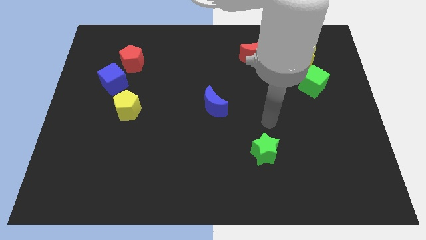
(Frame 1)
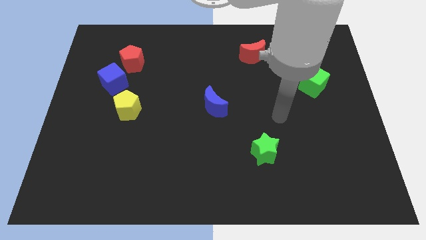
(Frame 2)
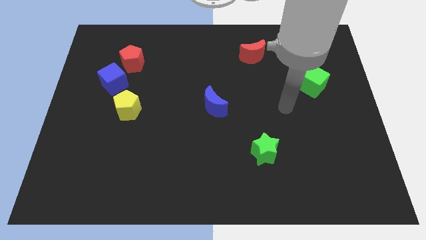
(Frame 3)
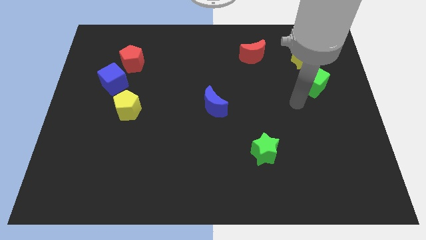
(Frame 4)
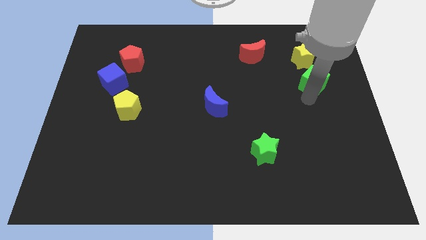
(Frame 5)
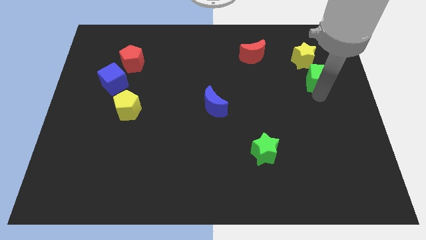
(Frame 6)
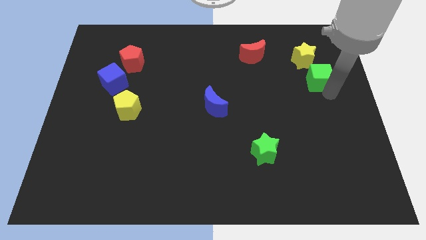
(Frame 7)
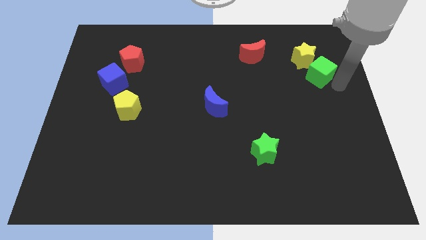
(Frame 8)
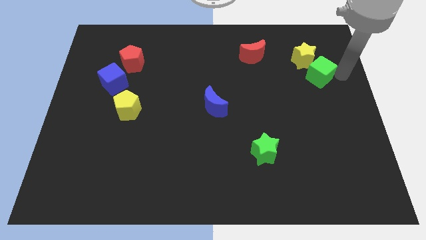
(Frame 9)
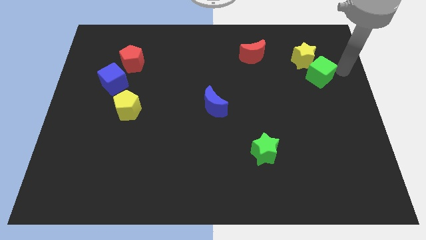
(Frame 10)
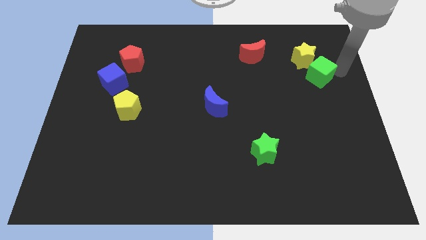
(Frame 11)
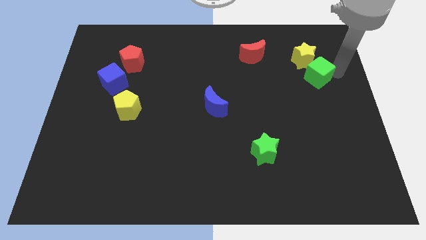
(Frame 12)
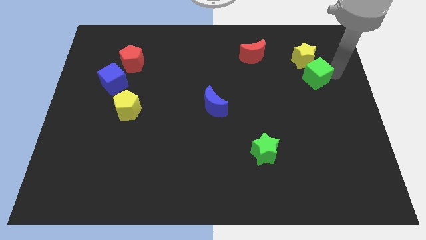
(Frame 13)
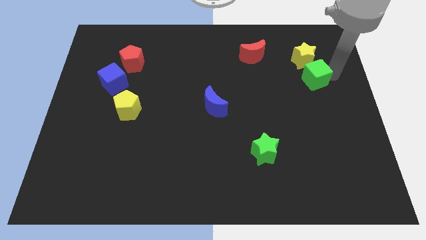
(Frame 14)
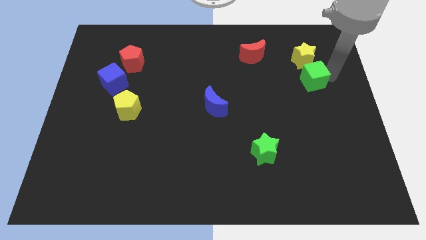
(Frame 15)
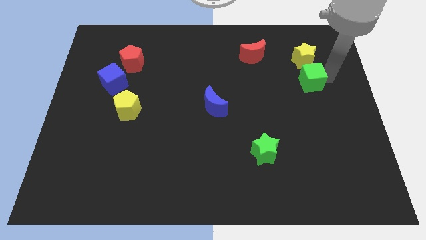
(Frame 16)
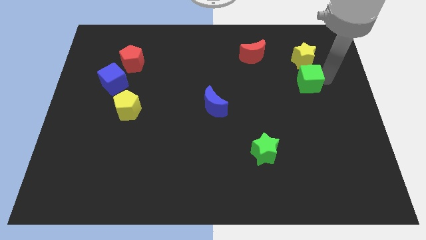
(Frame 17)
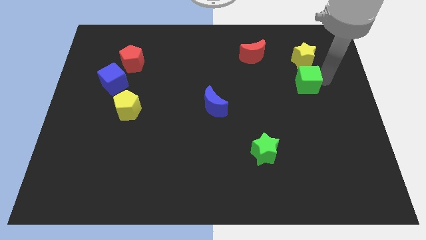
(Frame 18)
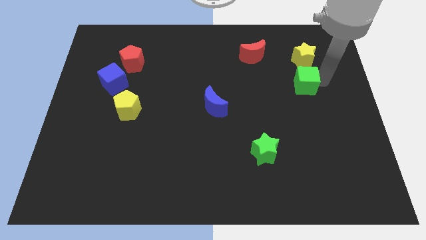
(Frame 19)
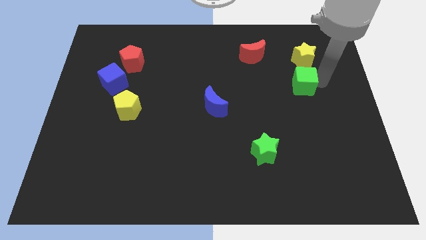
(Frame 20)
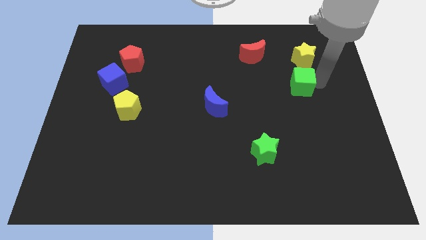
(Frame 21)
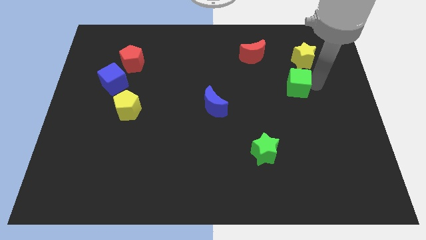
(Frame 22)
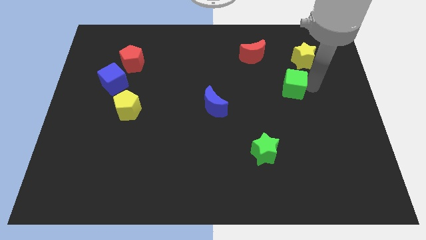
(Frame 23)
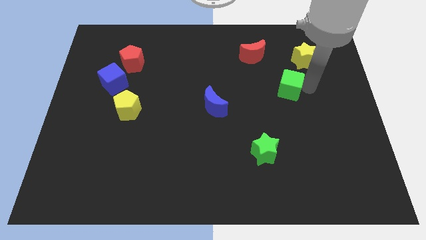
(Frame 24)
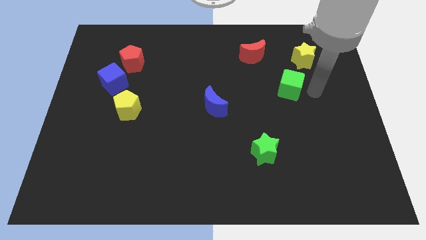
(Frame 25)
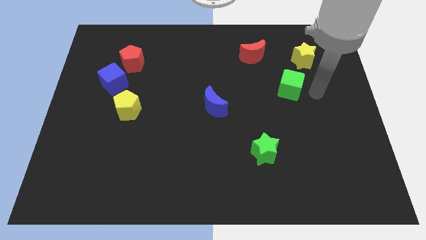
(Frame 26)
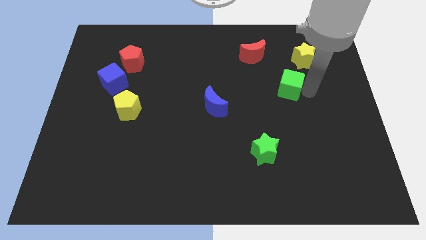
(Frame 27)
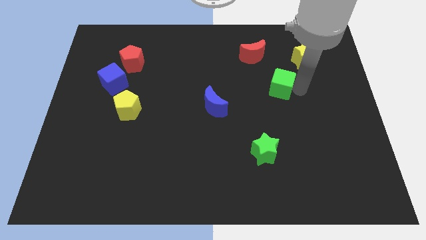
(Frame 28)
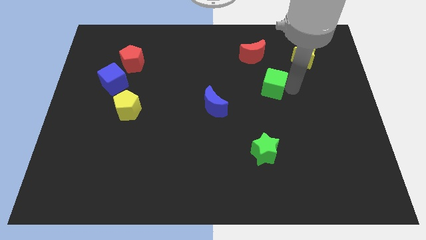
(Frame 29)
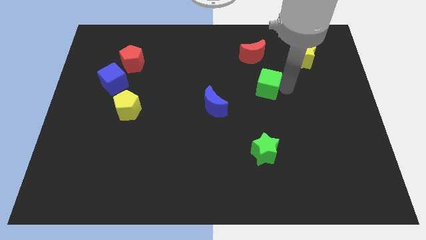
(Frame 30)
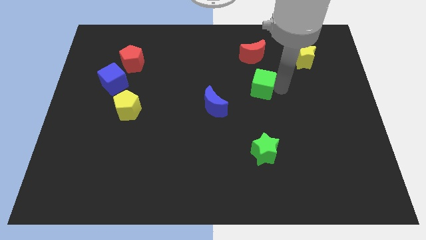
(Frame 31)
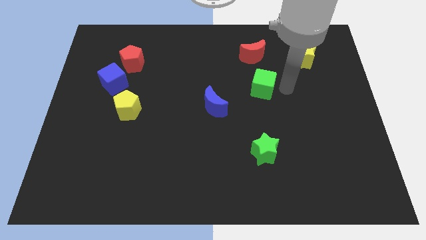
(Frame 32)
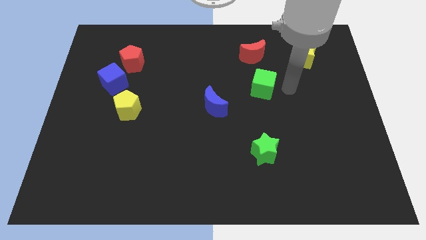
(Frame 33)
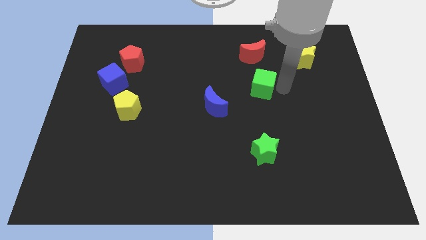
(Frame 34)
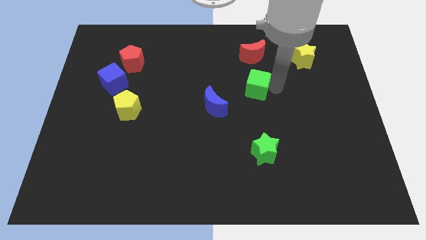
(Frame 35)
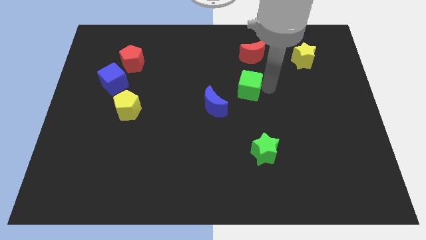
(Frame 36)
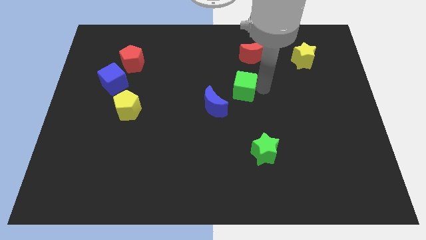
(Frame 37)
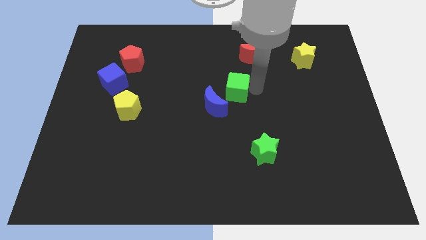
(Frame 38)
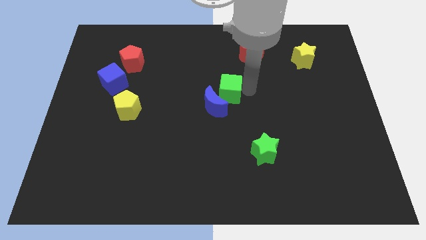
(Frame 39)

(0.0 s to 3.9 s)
slide the green cube to the left

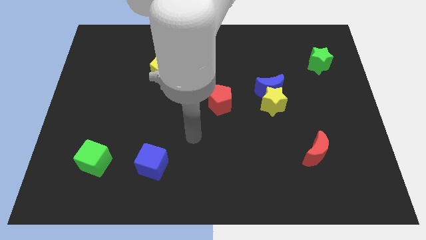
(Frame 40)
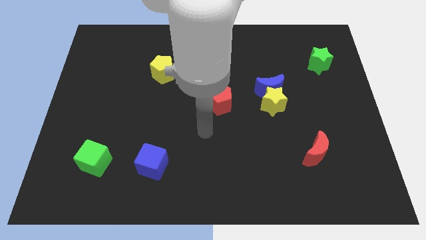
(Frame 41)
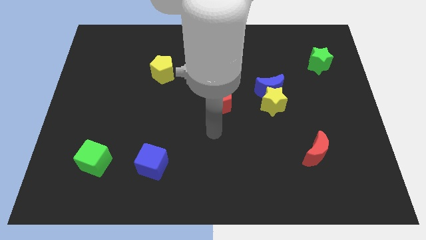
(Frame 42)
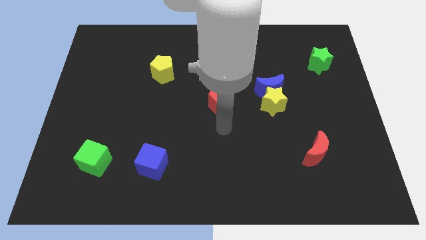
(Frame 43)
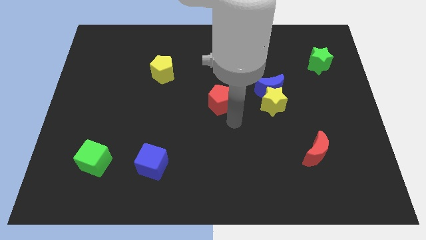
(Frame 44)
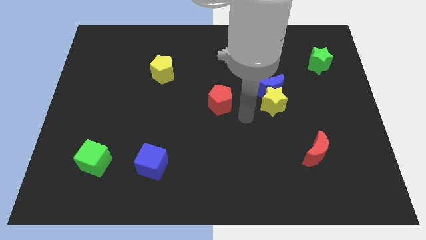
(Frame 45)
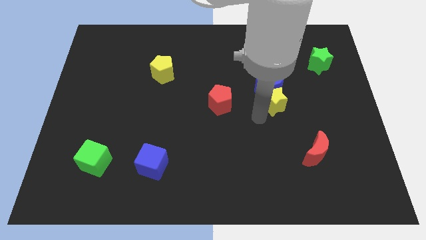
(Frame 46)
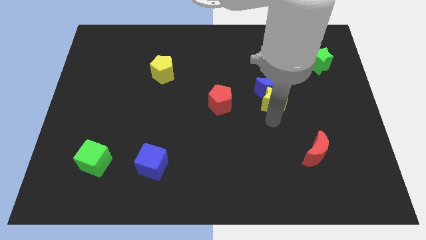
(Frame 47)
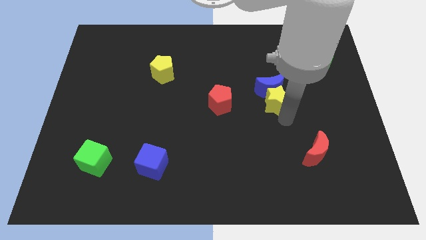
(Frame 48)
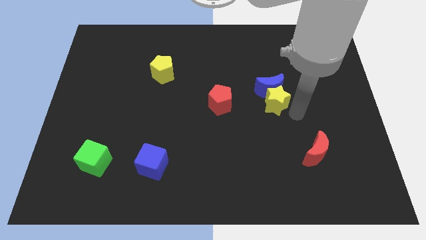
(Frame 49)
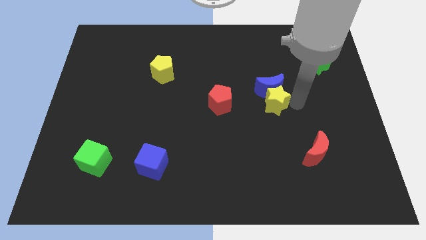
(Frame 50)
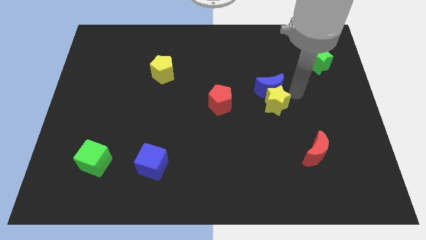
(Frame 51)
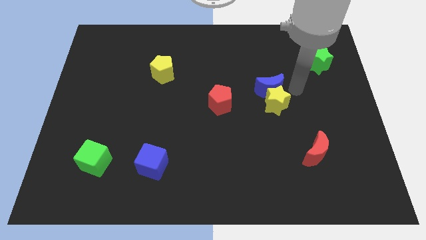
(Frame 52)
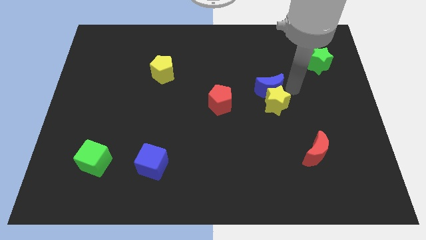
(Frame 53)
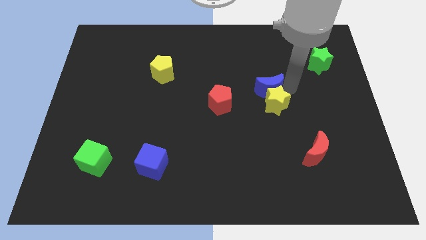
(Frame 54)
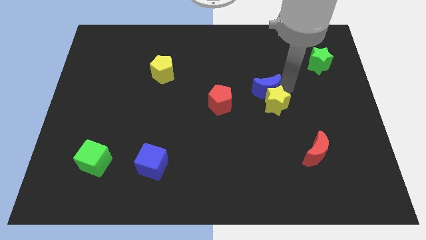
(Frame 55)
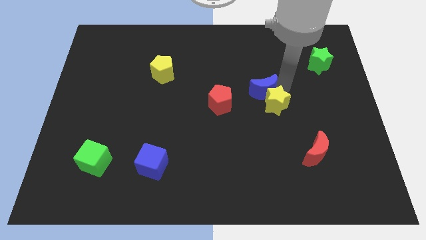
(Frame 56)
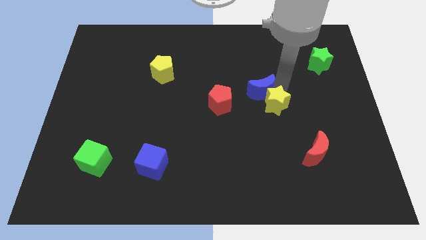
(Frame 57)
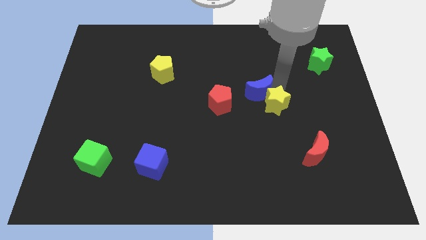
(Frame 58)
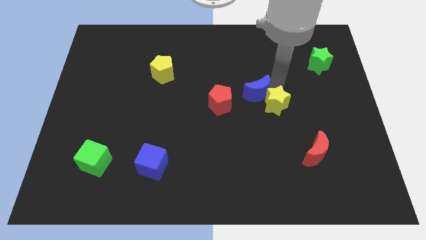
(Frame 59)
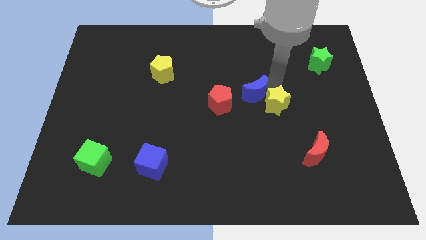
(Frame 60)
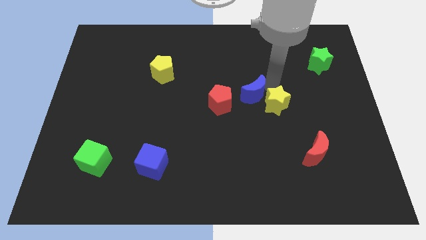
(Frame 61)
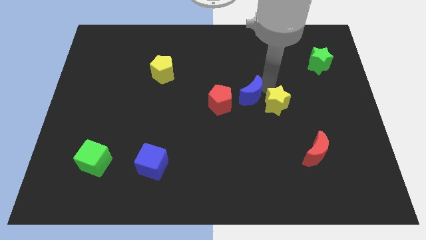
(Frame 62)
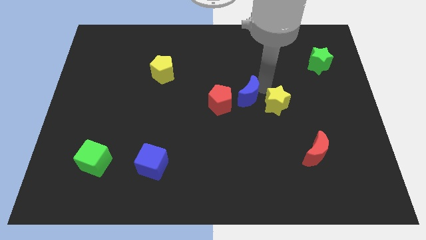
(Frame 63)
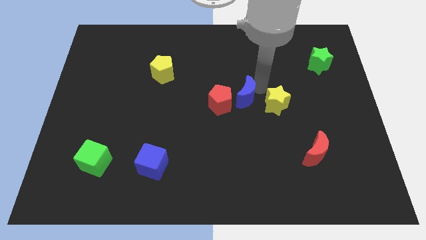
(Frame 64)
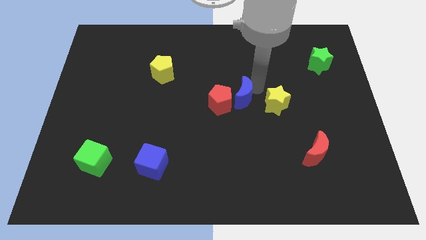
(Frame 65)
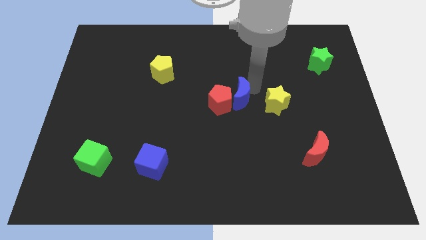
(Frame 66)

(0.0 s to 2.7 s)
move the blue moon to the left a little bit

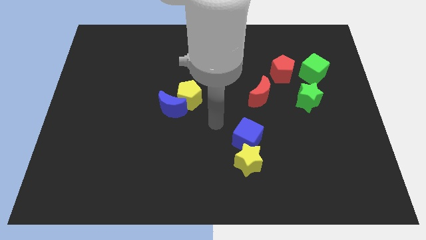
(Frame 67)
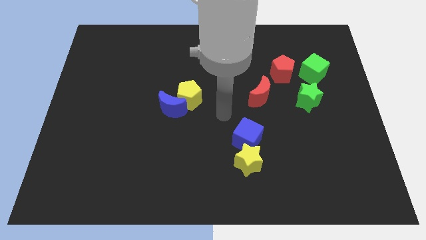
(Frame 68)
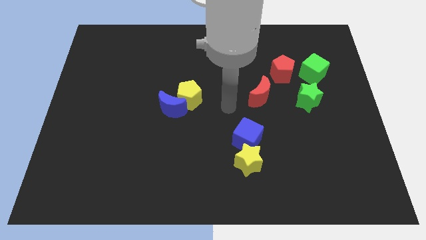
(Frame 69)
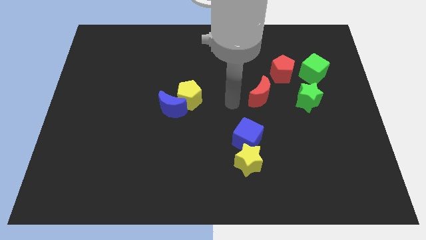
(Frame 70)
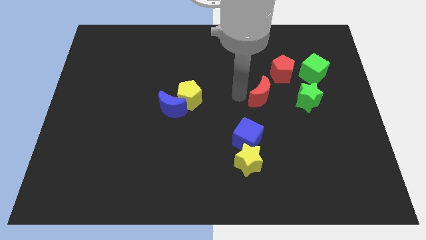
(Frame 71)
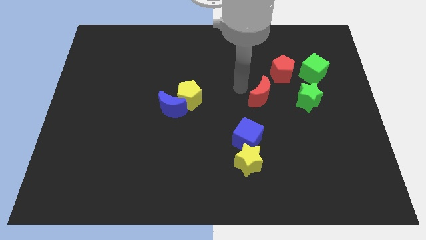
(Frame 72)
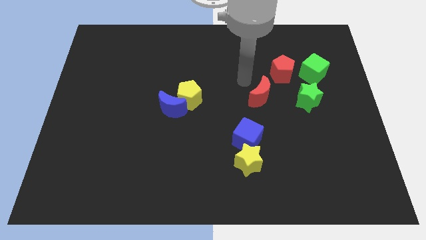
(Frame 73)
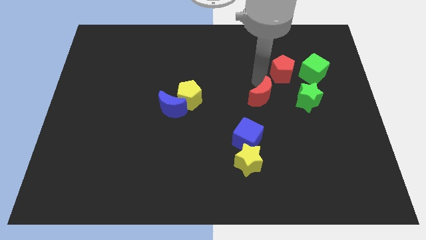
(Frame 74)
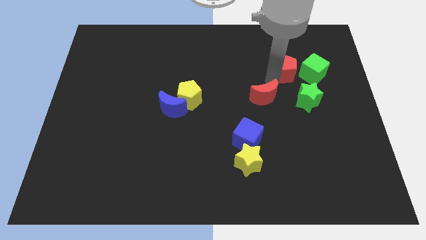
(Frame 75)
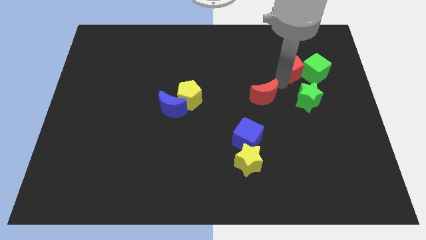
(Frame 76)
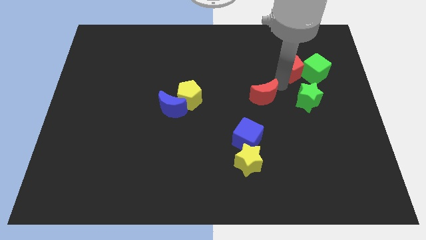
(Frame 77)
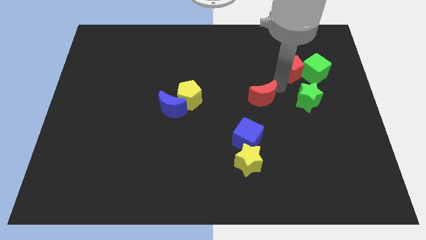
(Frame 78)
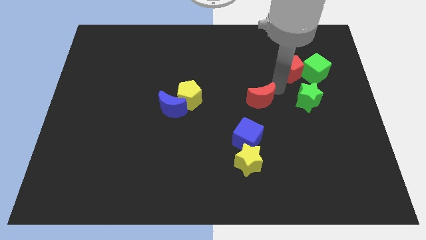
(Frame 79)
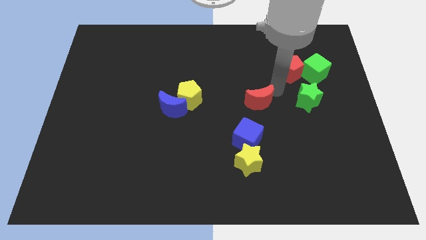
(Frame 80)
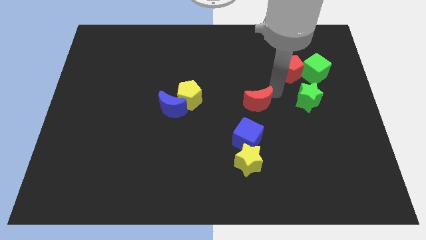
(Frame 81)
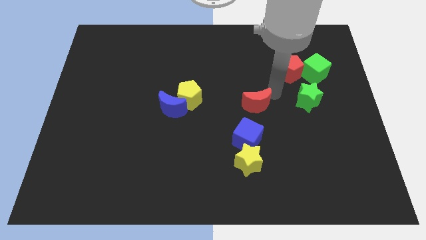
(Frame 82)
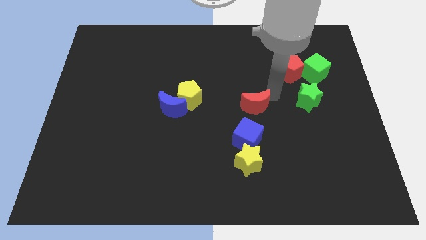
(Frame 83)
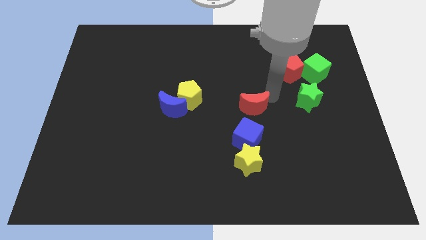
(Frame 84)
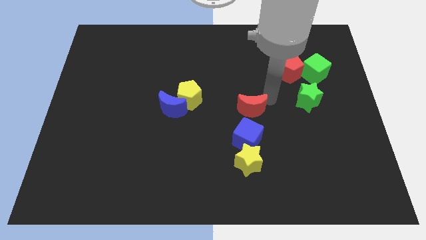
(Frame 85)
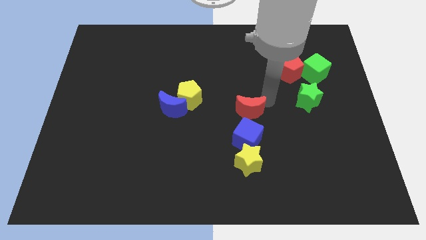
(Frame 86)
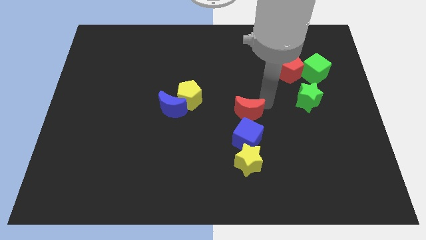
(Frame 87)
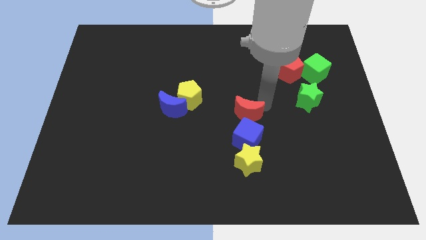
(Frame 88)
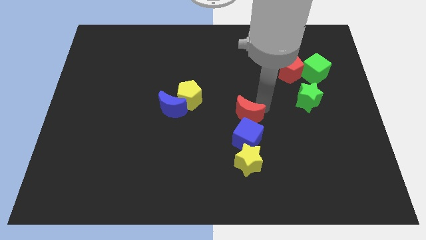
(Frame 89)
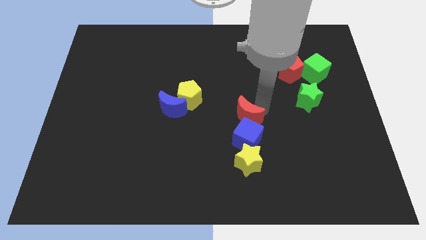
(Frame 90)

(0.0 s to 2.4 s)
slightly move the red moon downwards and then to the left
